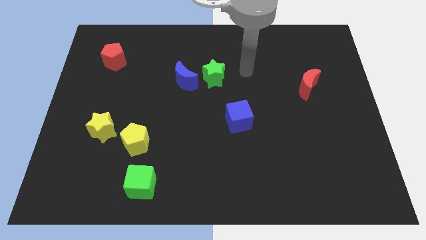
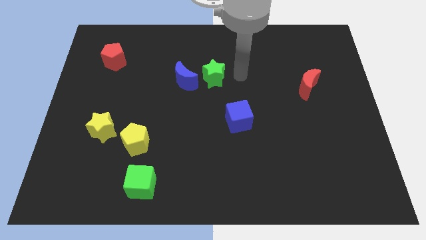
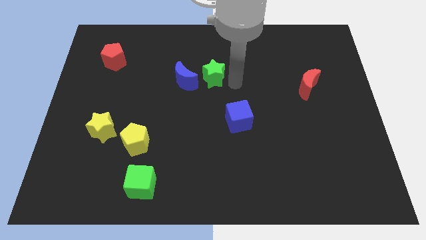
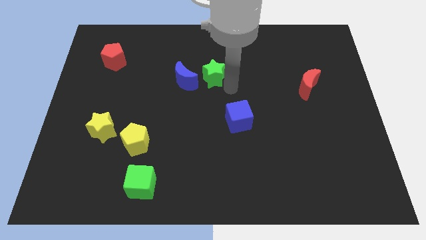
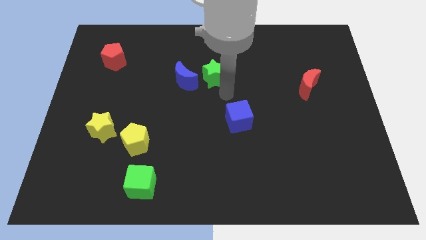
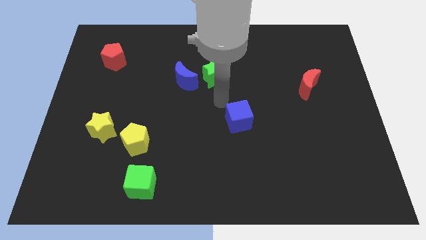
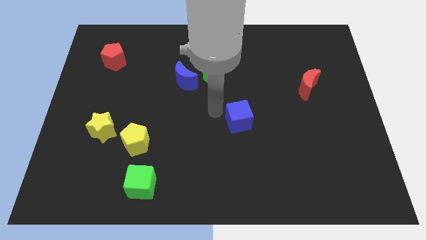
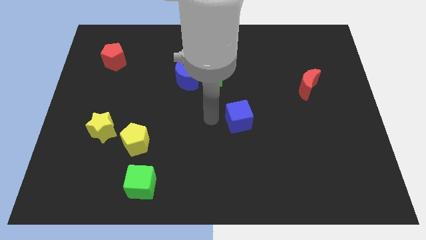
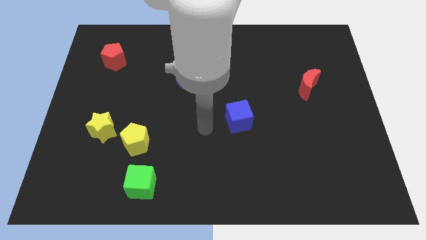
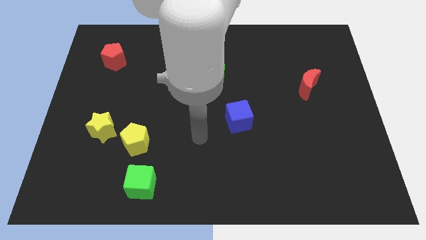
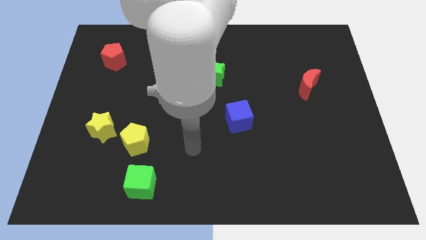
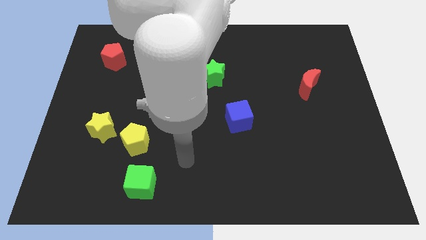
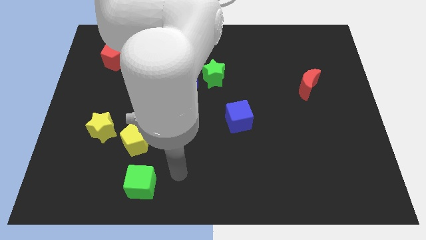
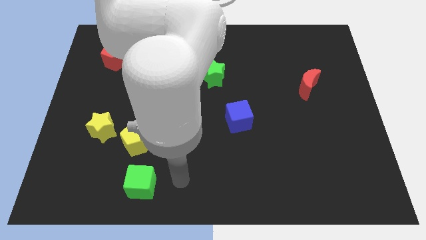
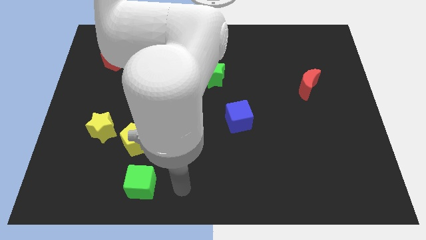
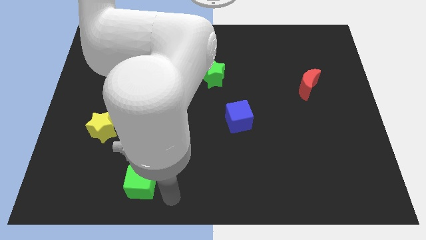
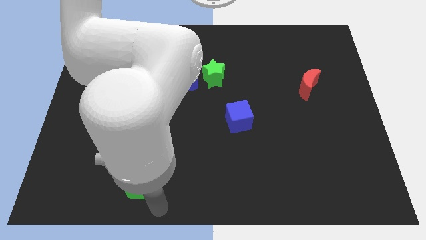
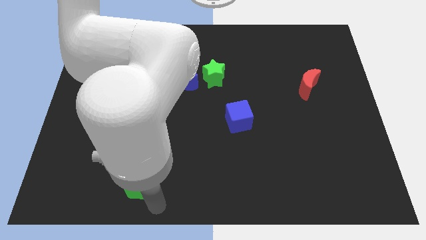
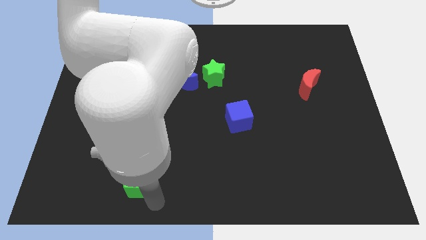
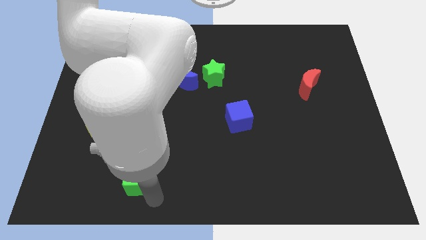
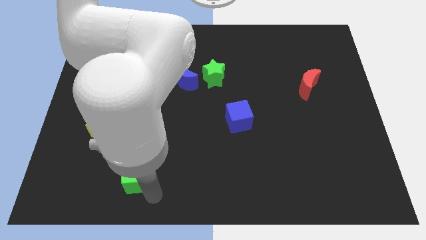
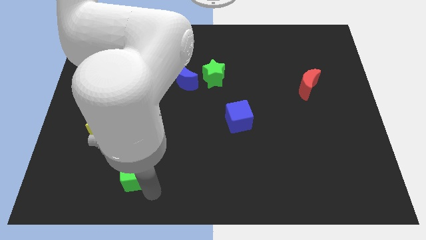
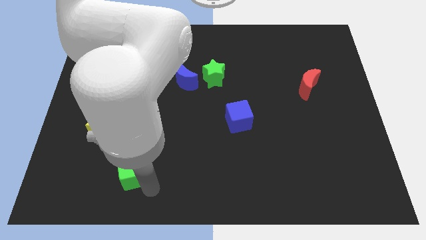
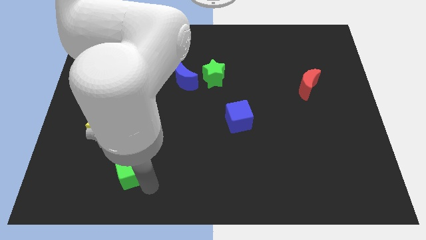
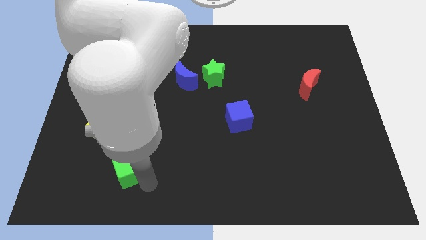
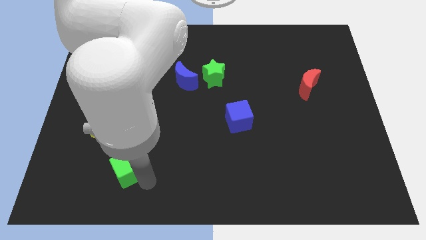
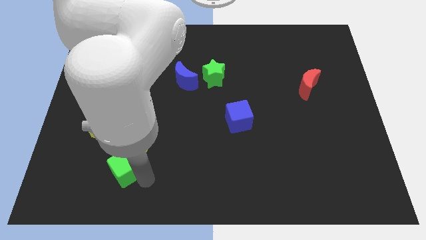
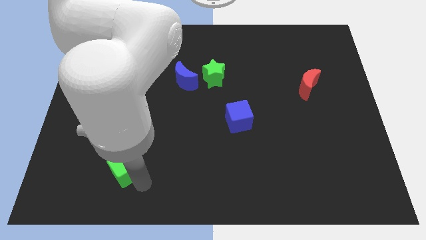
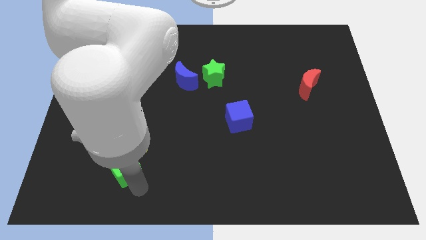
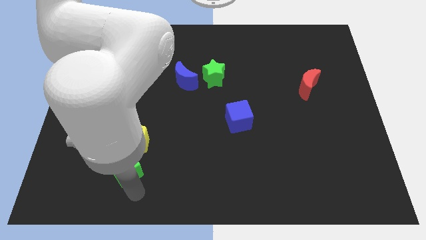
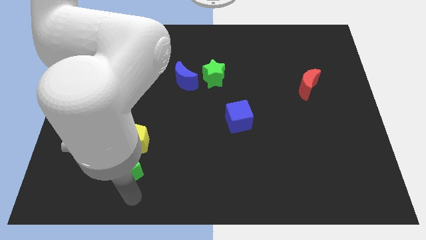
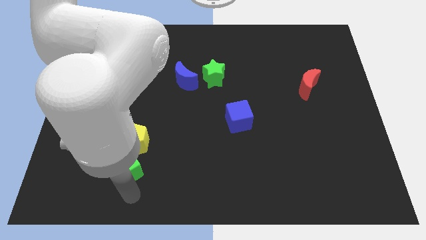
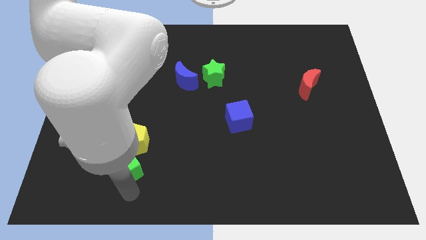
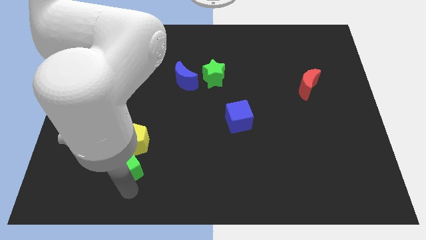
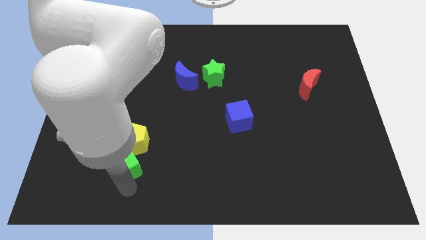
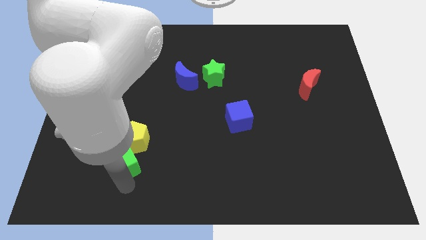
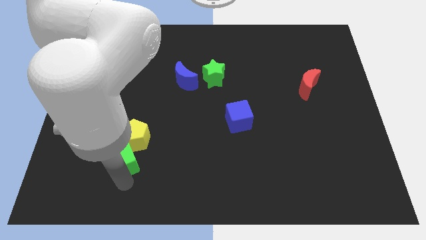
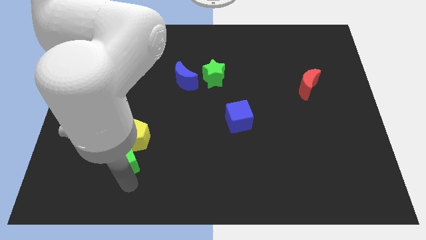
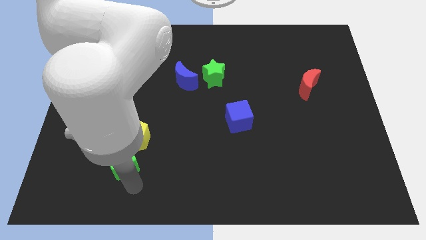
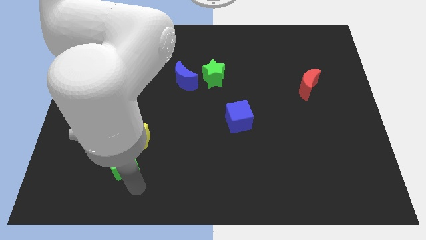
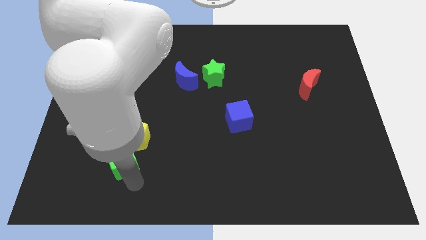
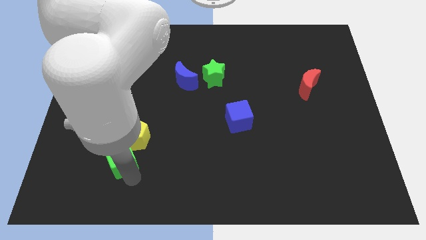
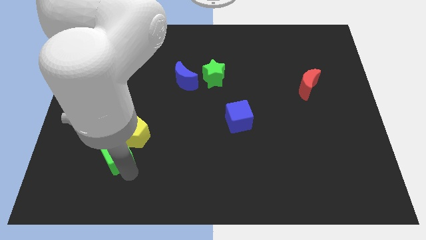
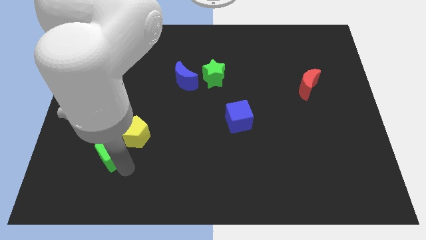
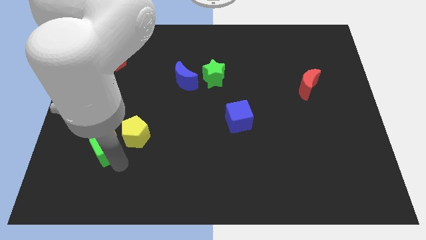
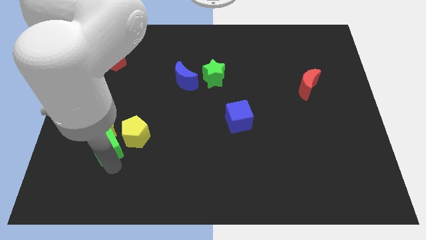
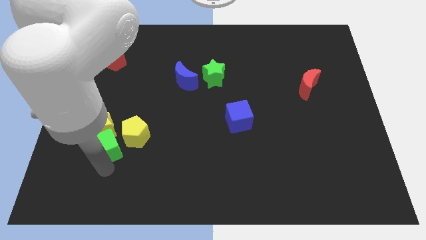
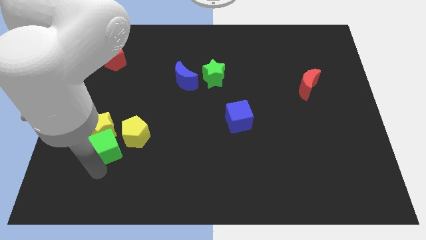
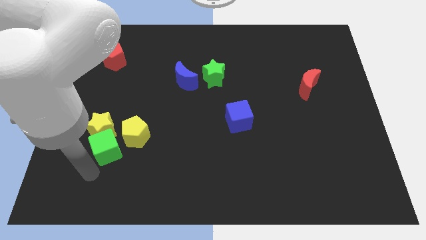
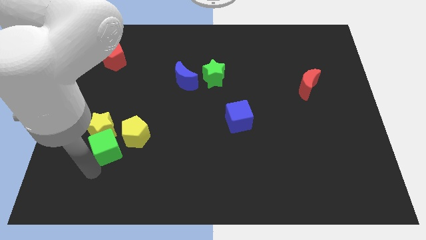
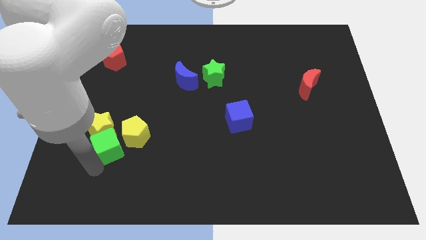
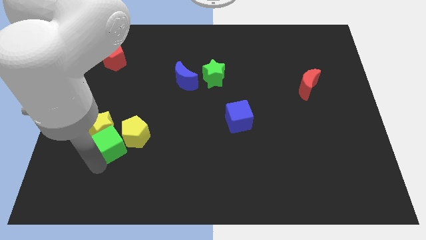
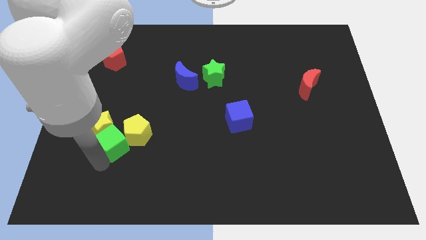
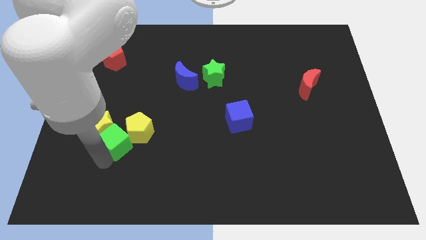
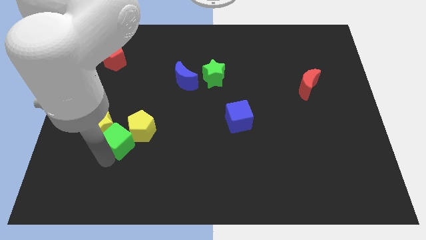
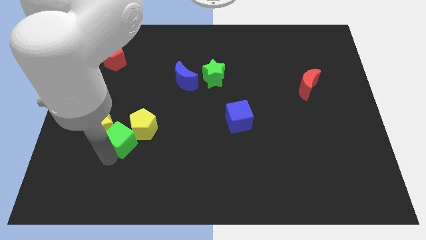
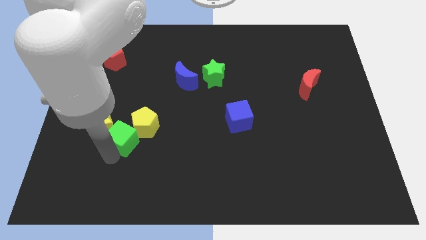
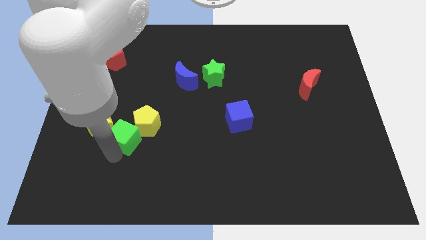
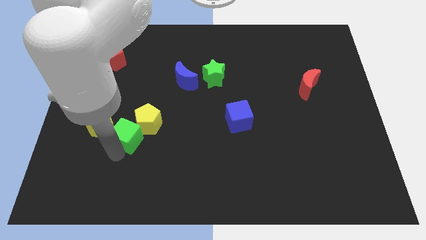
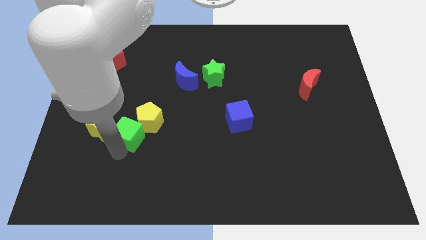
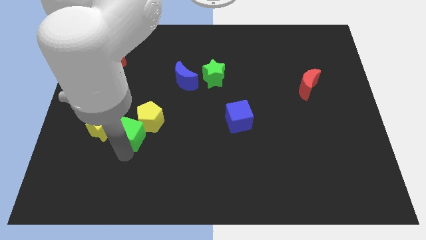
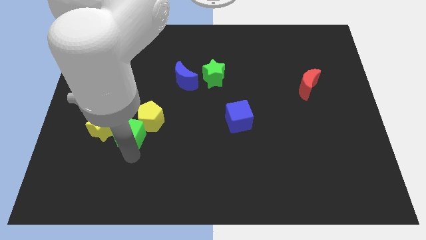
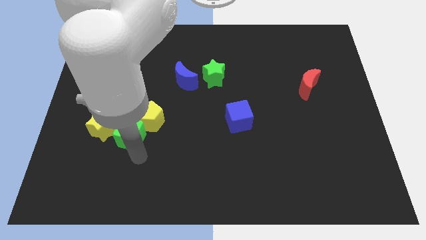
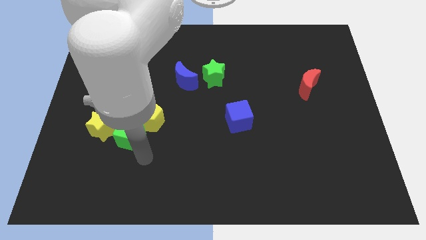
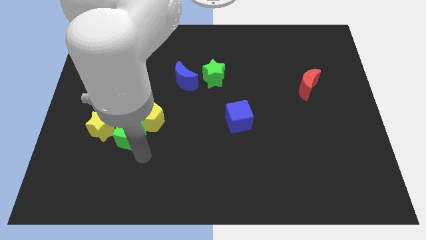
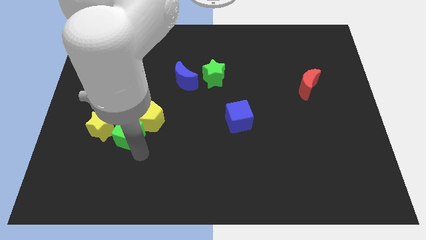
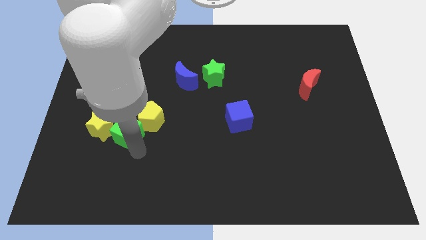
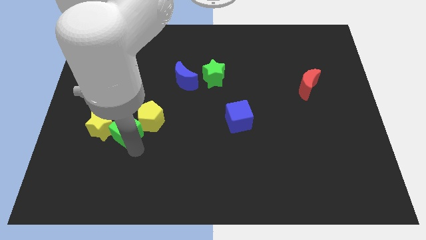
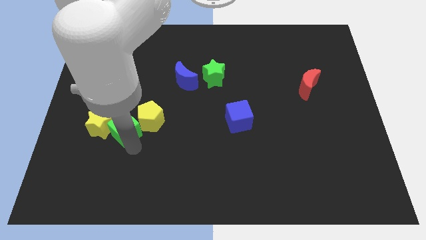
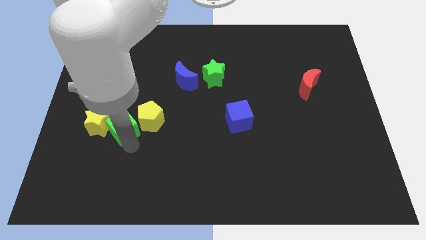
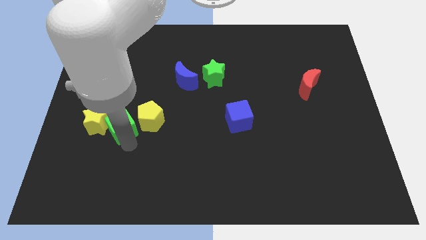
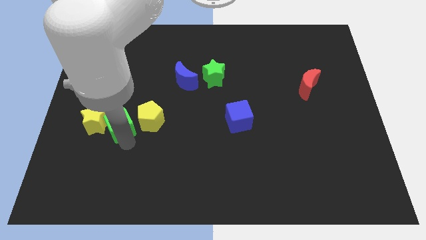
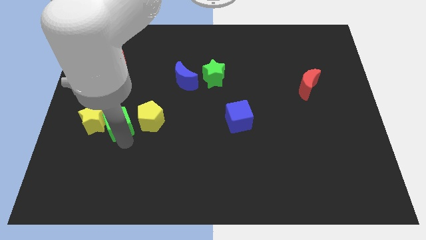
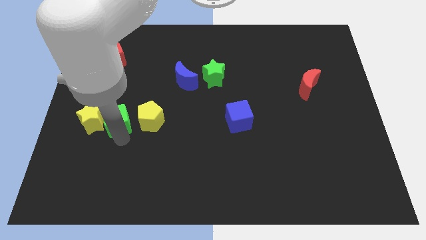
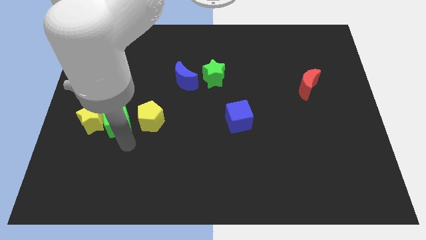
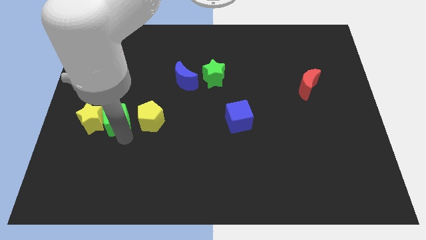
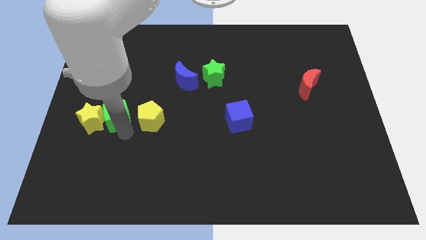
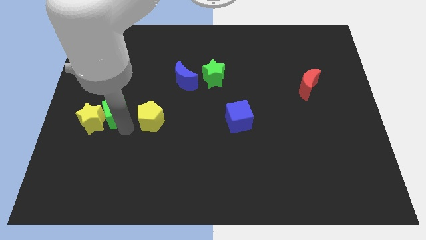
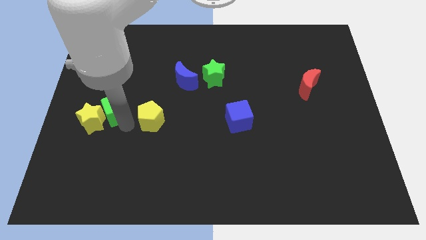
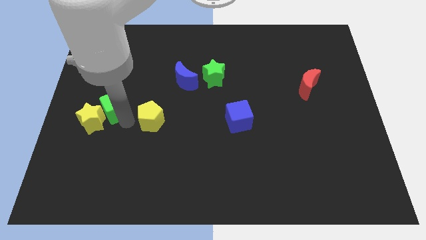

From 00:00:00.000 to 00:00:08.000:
push the green cube above the yellow star

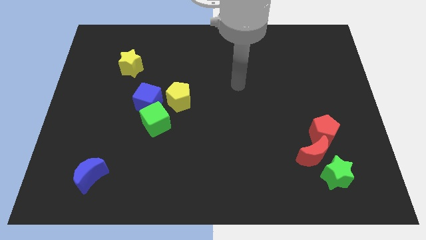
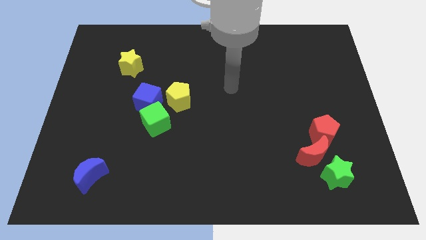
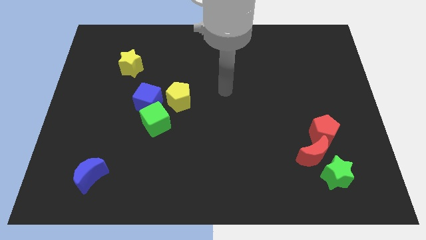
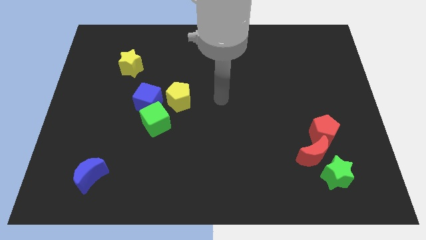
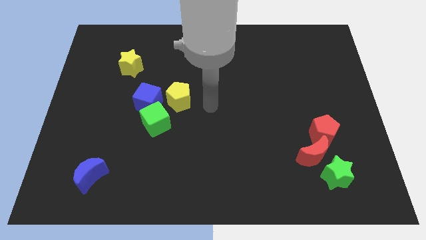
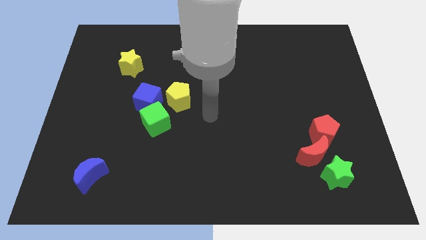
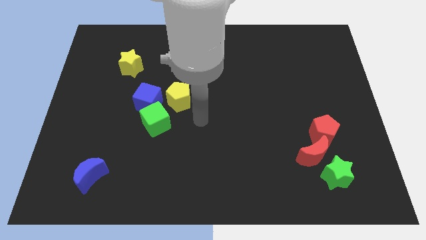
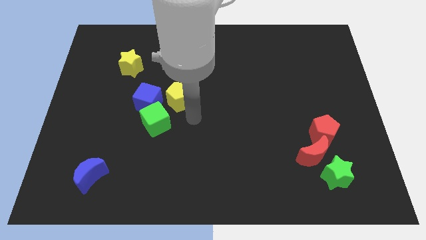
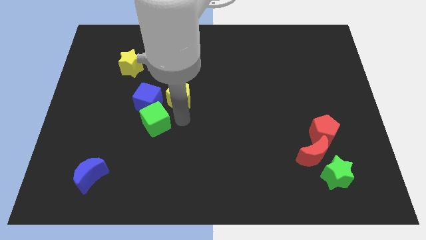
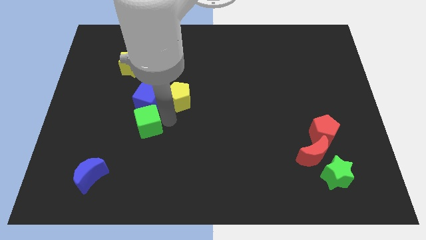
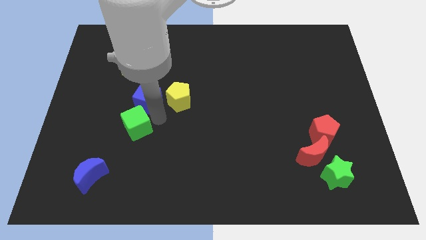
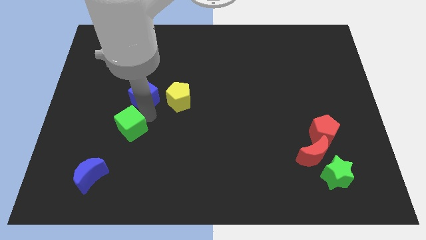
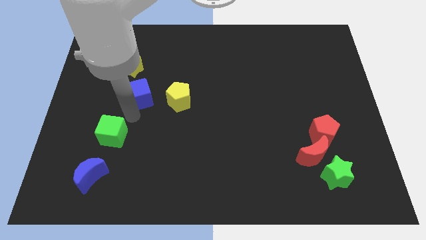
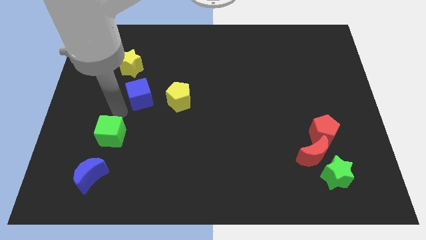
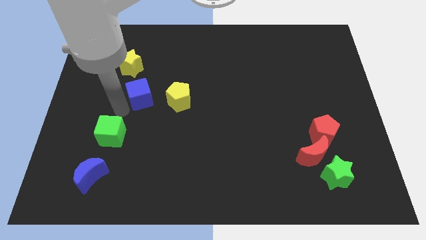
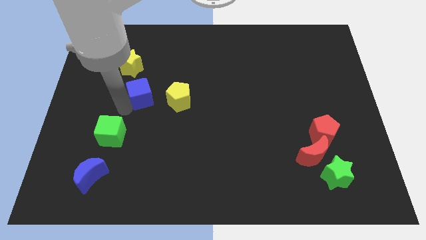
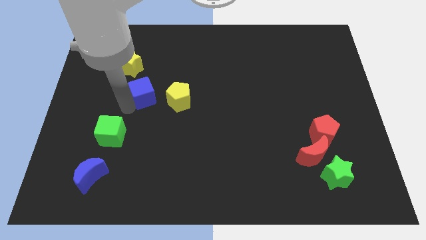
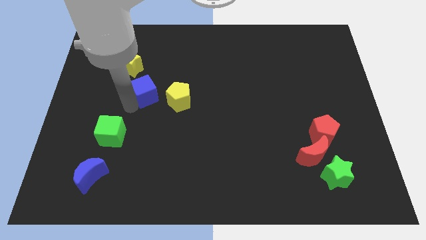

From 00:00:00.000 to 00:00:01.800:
slide the blue cube diagonally up and to the left of the yellow pentagon
